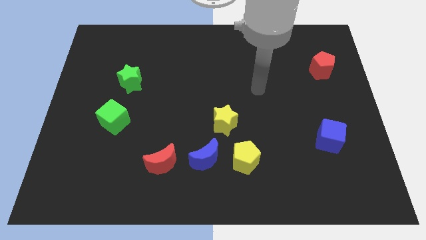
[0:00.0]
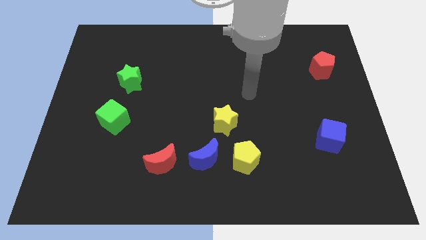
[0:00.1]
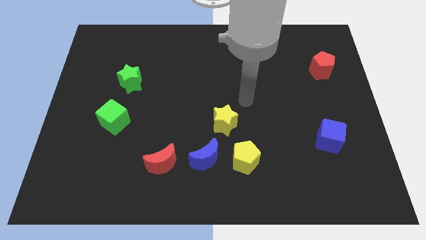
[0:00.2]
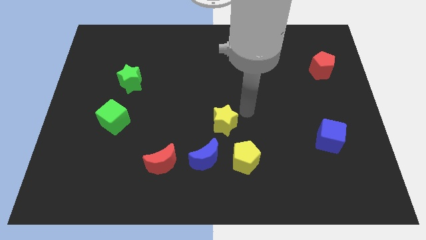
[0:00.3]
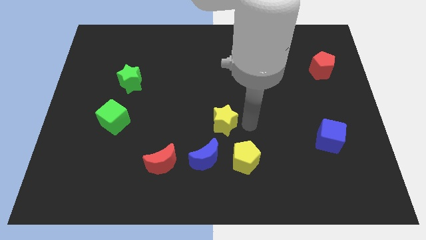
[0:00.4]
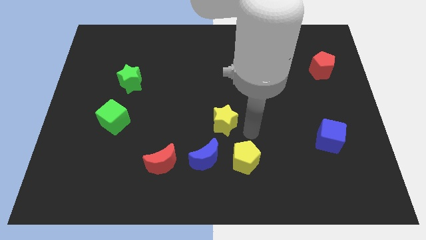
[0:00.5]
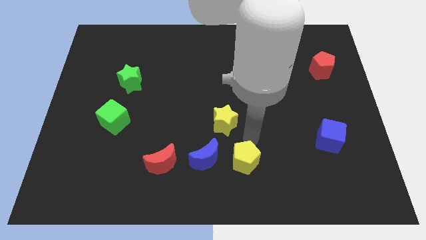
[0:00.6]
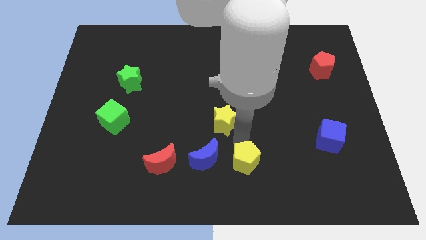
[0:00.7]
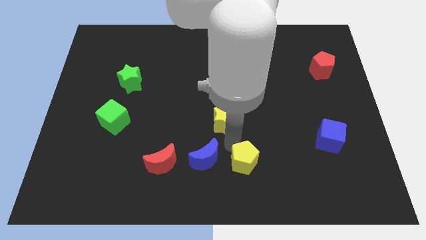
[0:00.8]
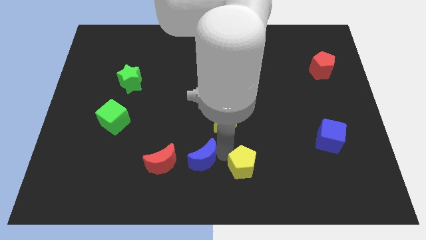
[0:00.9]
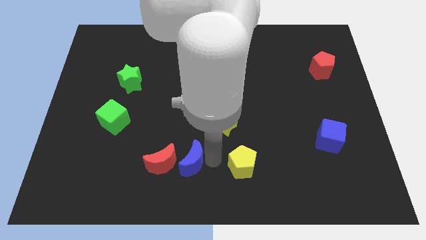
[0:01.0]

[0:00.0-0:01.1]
move the yellow pentagon away from the blue moon

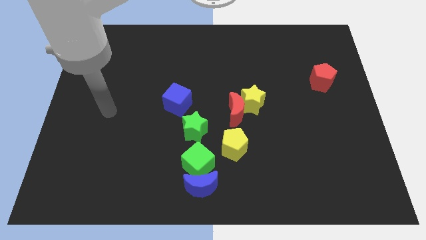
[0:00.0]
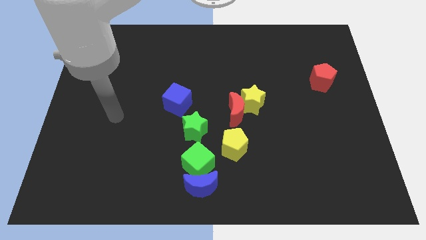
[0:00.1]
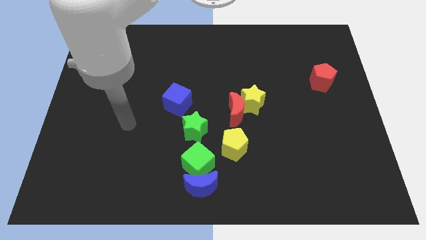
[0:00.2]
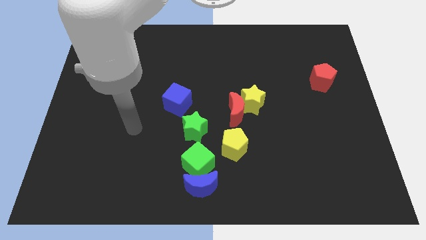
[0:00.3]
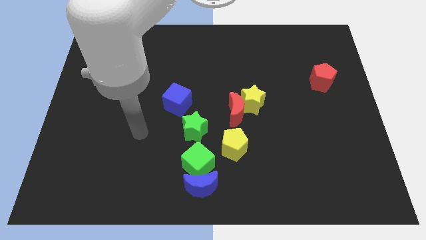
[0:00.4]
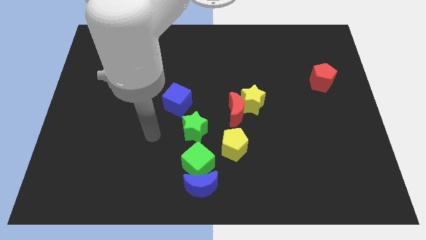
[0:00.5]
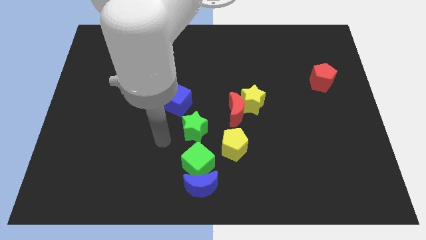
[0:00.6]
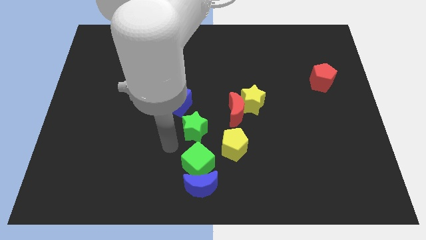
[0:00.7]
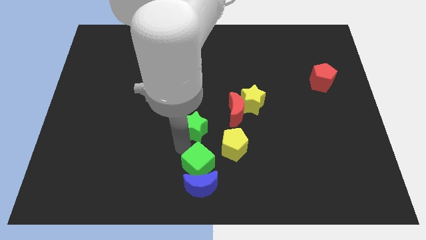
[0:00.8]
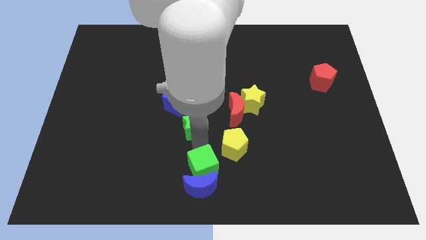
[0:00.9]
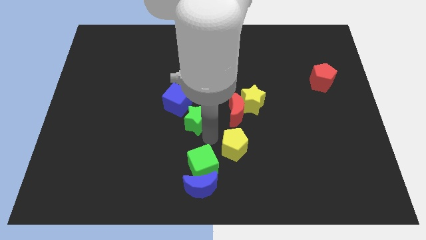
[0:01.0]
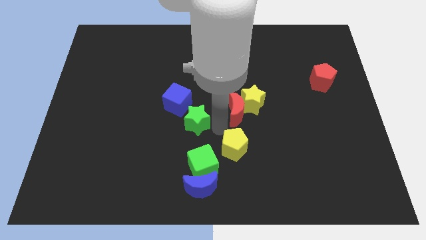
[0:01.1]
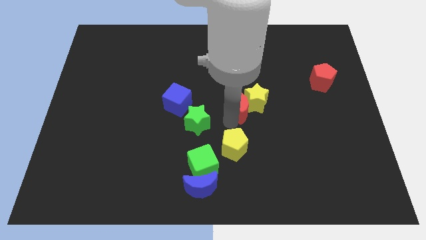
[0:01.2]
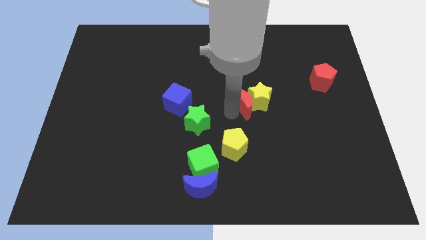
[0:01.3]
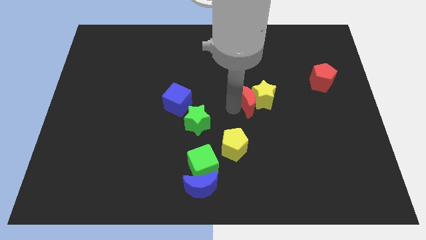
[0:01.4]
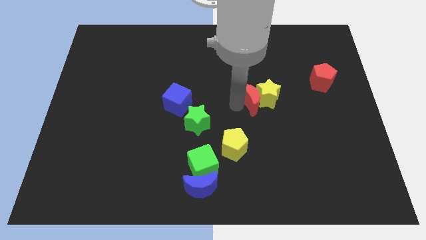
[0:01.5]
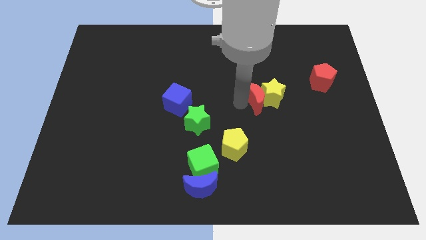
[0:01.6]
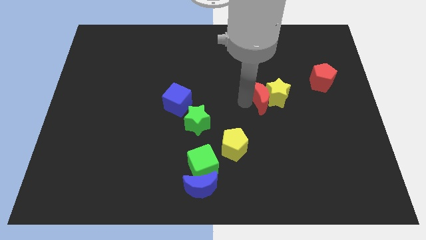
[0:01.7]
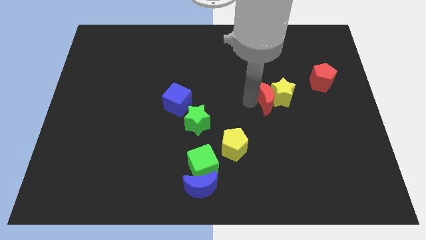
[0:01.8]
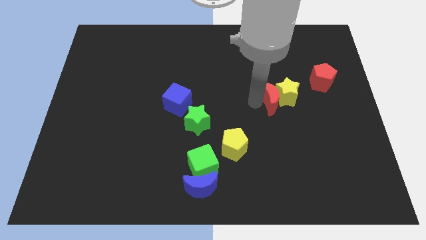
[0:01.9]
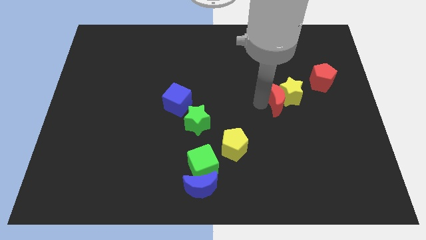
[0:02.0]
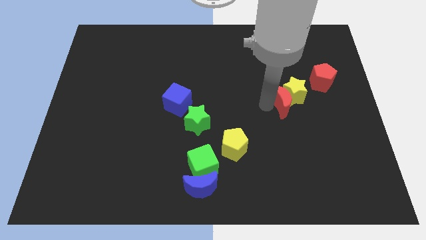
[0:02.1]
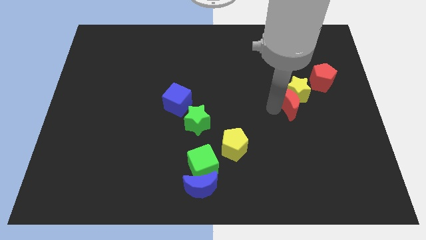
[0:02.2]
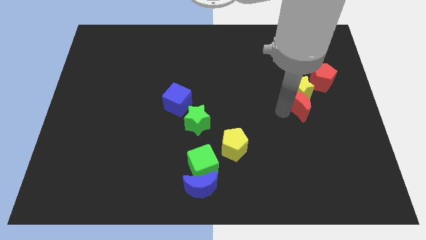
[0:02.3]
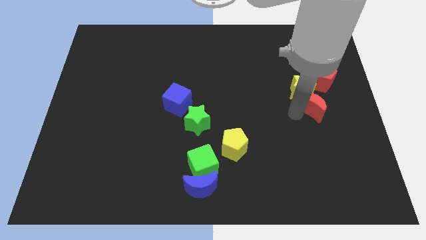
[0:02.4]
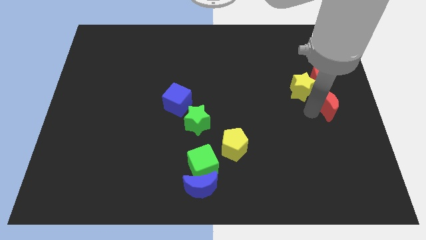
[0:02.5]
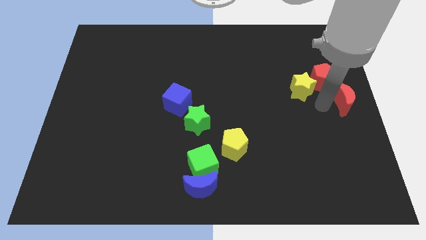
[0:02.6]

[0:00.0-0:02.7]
pull the yellow star apart from the red moon

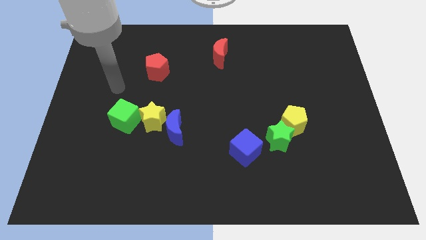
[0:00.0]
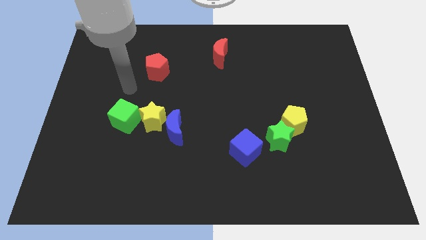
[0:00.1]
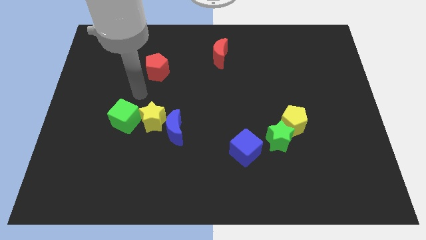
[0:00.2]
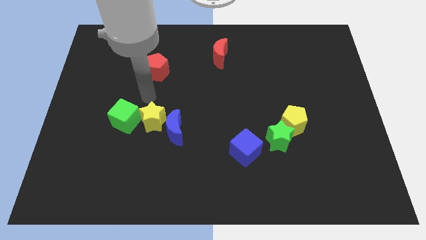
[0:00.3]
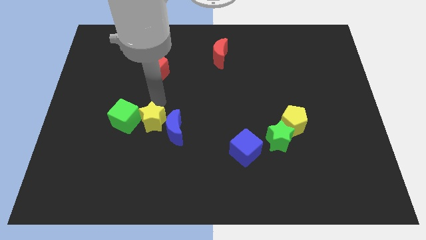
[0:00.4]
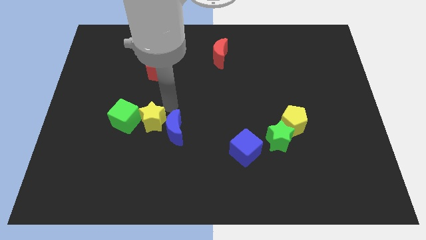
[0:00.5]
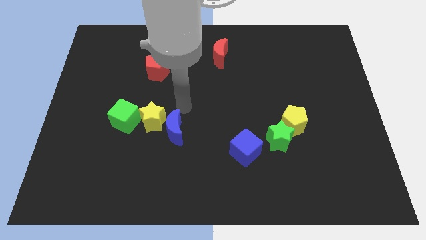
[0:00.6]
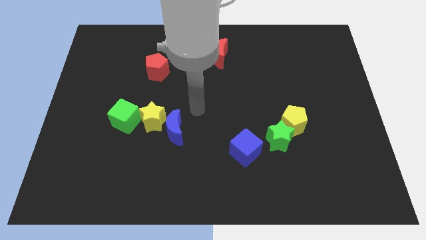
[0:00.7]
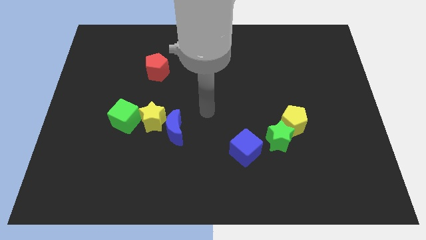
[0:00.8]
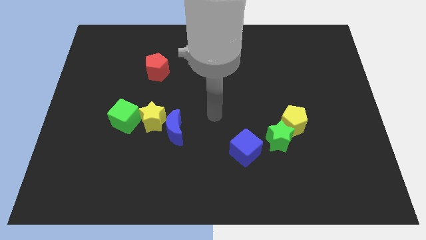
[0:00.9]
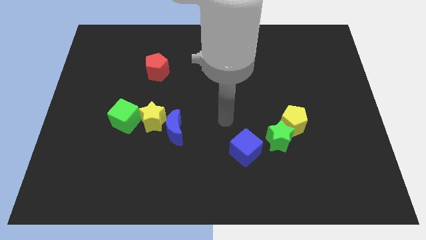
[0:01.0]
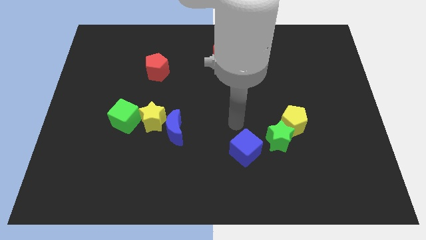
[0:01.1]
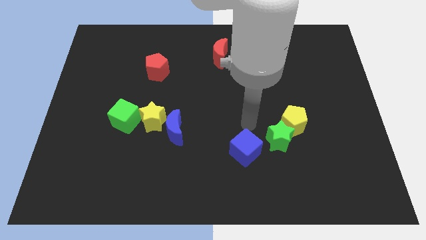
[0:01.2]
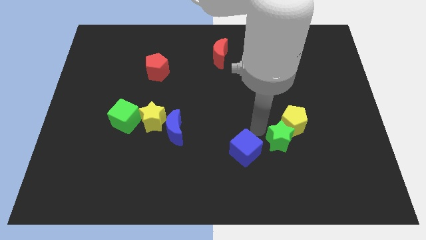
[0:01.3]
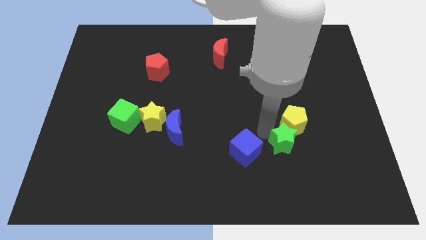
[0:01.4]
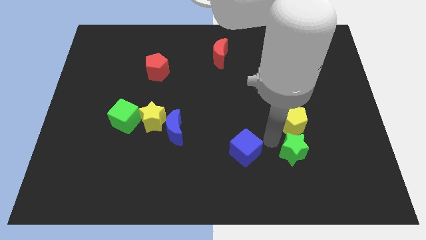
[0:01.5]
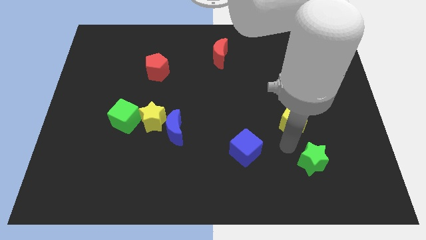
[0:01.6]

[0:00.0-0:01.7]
pull the yellow pentagon apart from the green star

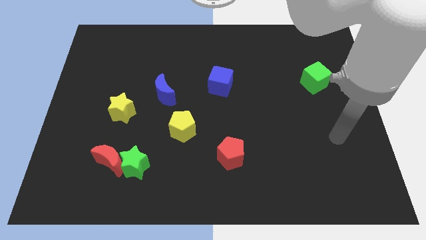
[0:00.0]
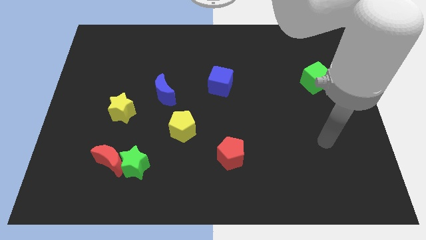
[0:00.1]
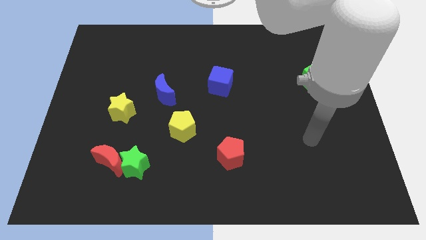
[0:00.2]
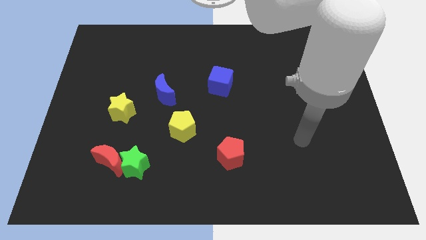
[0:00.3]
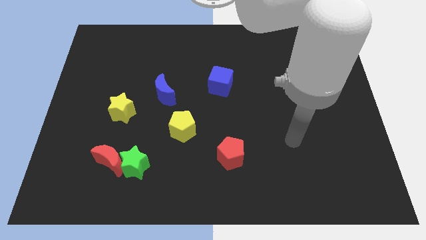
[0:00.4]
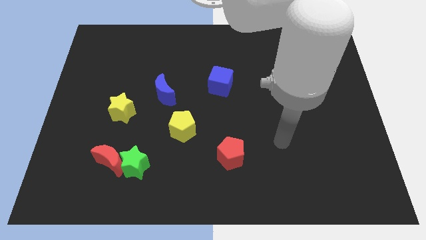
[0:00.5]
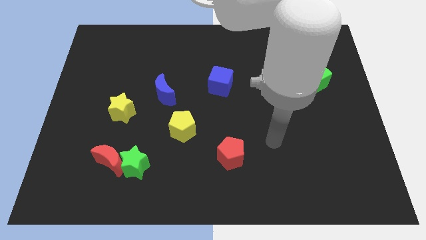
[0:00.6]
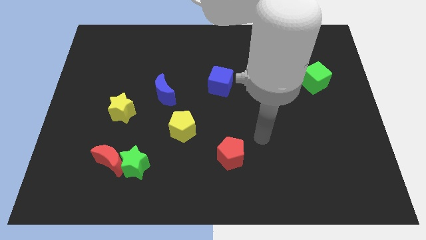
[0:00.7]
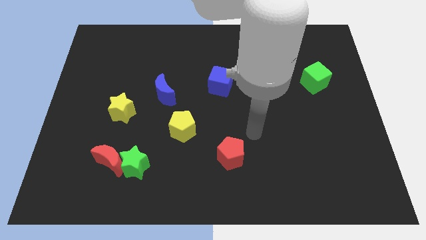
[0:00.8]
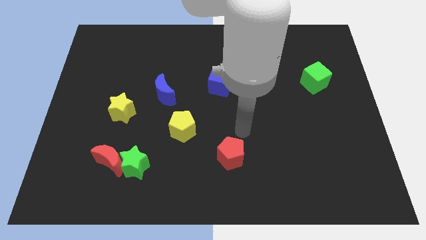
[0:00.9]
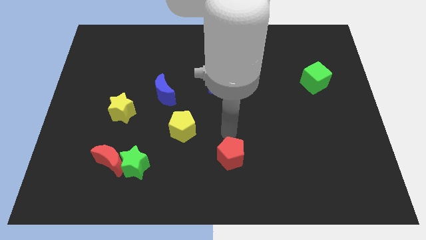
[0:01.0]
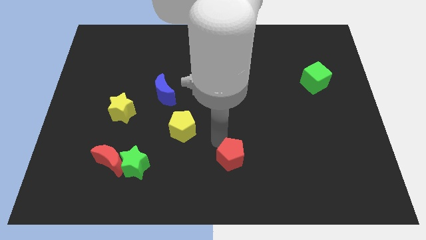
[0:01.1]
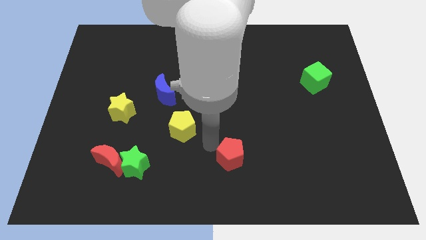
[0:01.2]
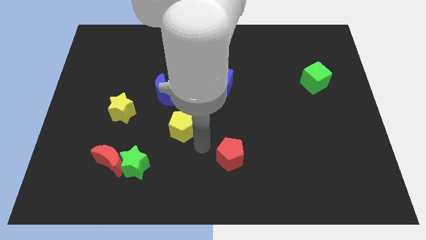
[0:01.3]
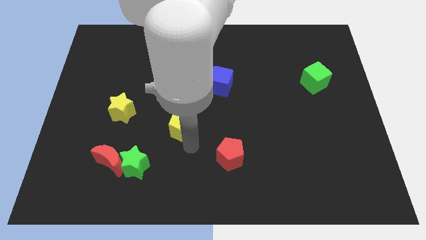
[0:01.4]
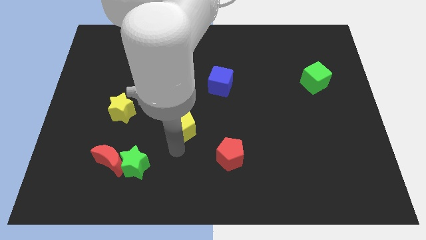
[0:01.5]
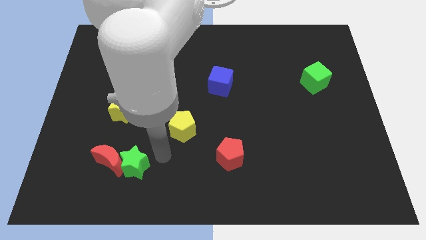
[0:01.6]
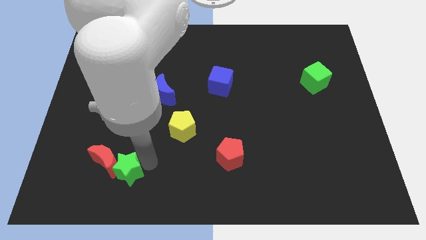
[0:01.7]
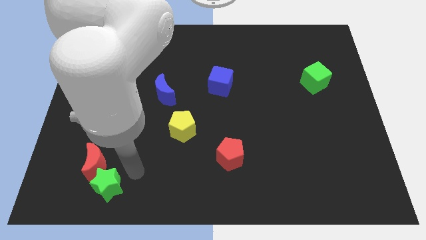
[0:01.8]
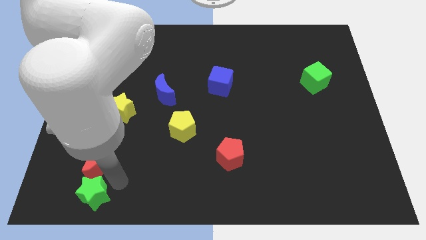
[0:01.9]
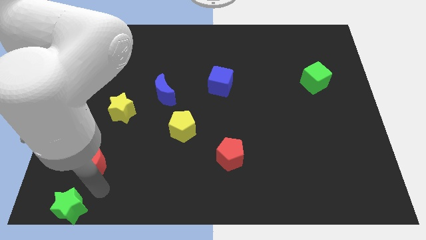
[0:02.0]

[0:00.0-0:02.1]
move the red moon away from the green star

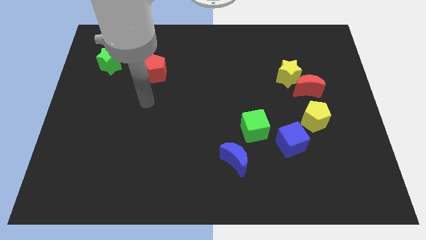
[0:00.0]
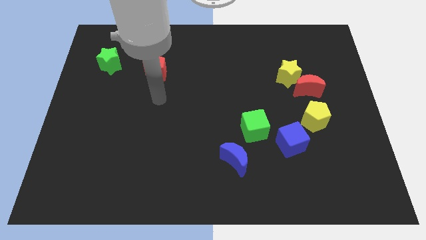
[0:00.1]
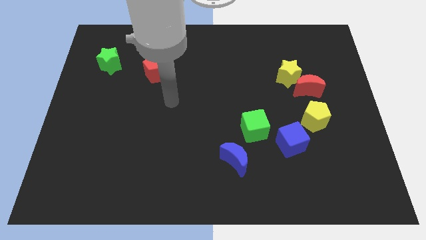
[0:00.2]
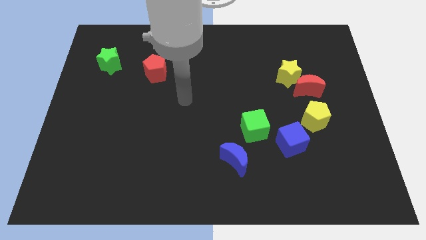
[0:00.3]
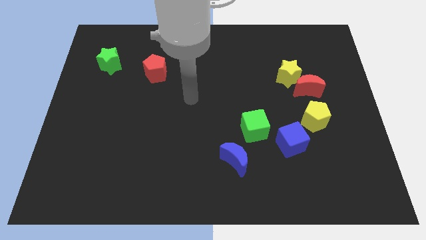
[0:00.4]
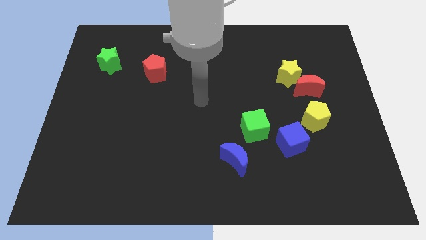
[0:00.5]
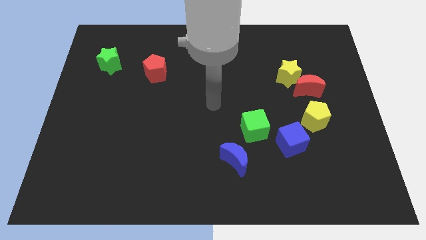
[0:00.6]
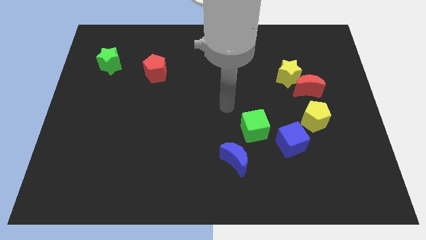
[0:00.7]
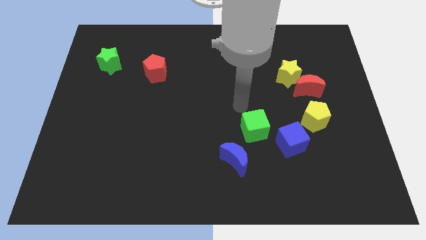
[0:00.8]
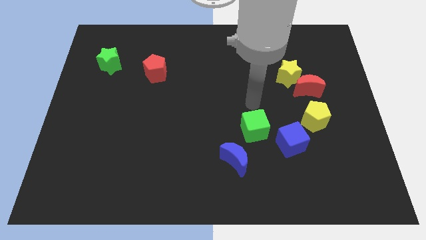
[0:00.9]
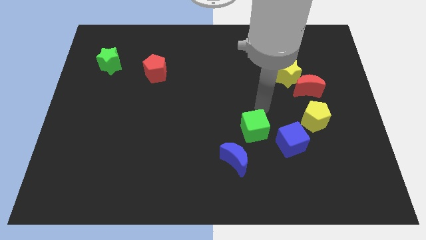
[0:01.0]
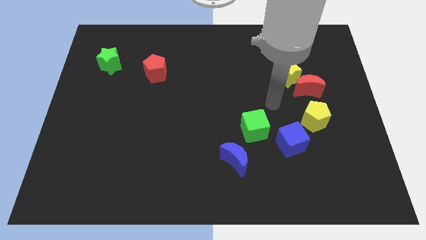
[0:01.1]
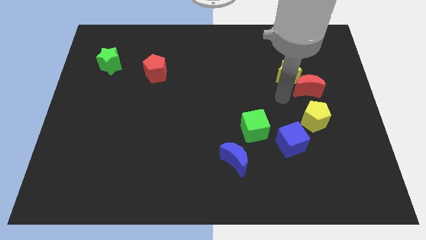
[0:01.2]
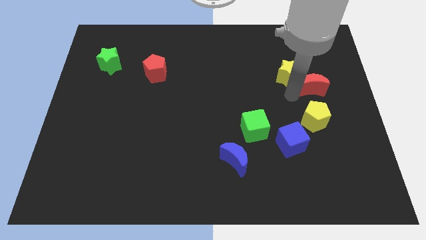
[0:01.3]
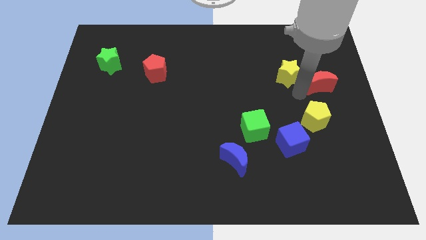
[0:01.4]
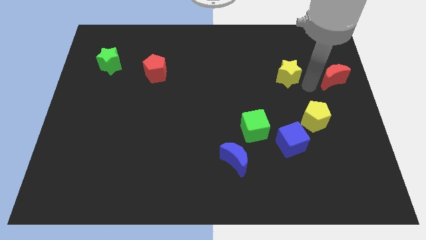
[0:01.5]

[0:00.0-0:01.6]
move the yellow star away from the red moon

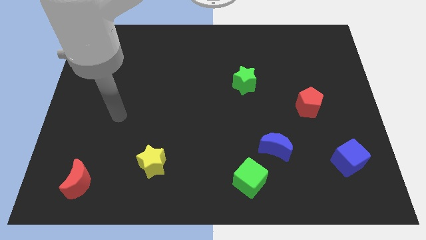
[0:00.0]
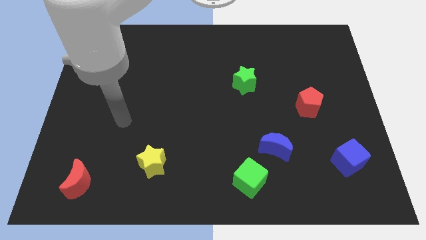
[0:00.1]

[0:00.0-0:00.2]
pull the blue moon apart from the green cube
